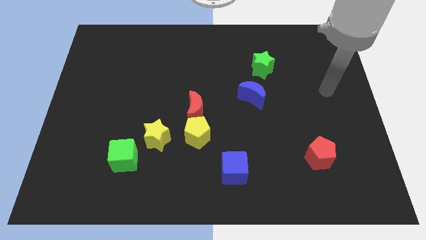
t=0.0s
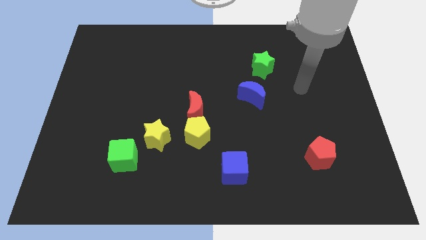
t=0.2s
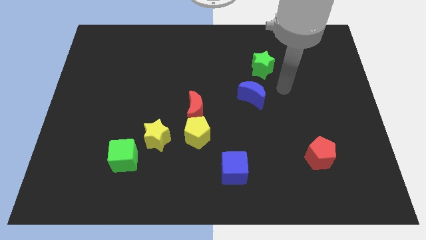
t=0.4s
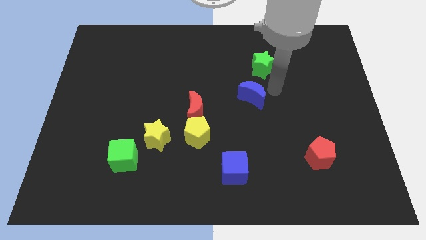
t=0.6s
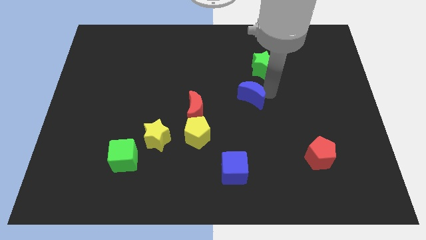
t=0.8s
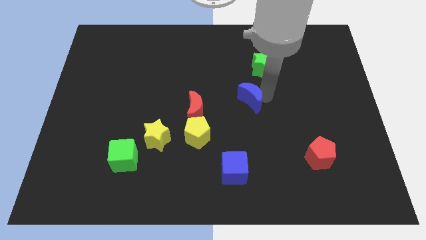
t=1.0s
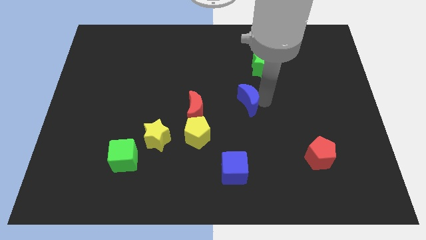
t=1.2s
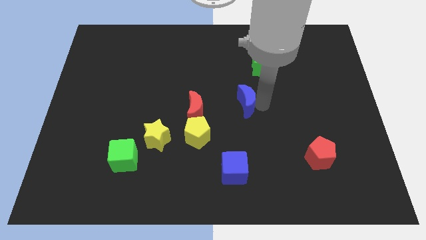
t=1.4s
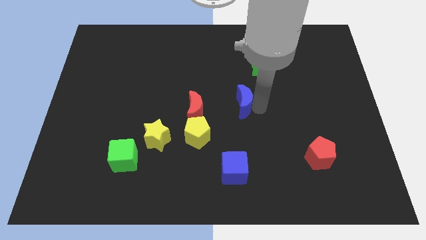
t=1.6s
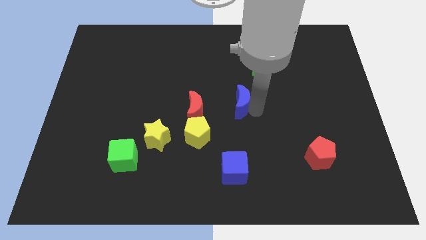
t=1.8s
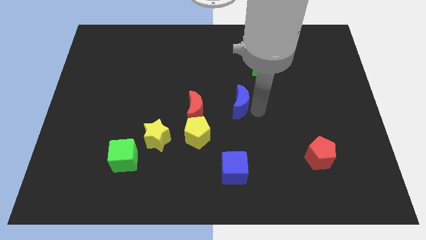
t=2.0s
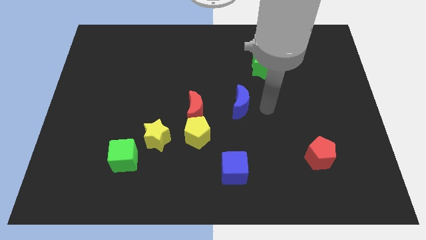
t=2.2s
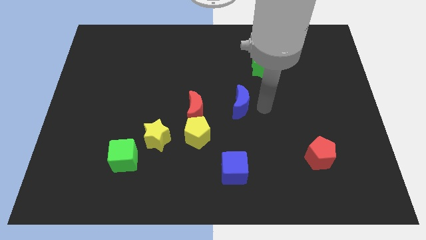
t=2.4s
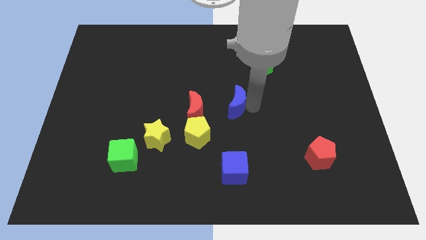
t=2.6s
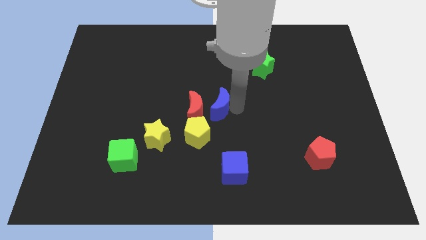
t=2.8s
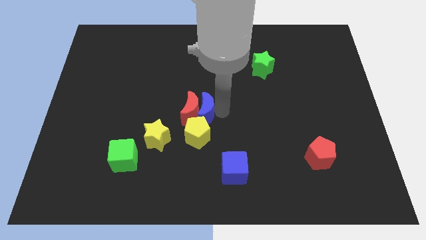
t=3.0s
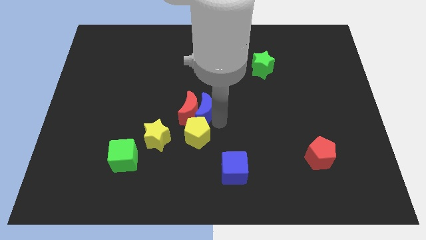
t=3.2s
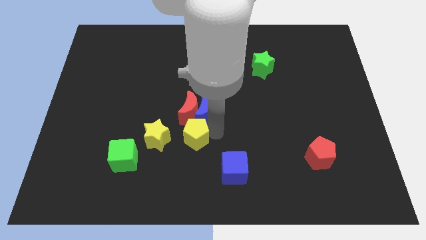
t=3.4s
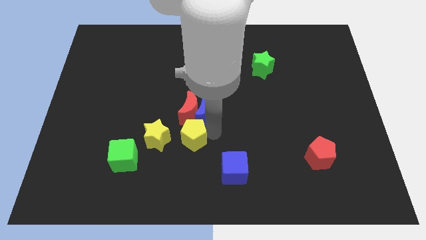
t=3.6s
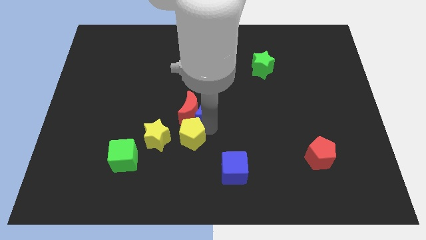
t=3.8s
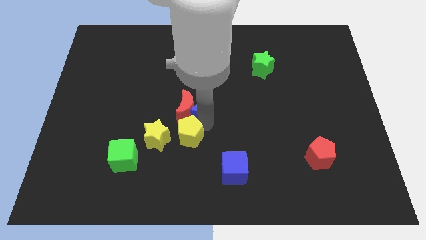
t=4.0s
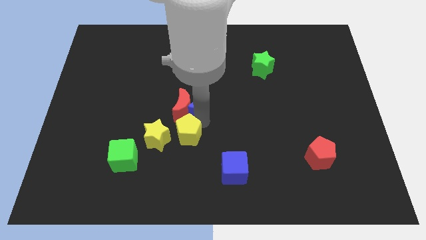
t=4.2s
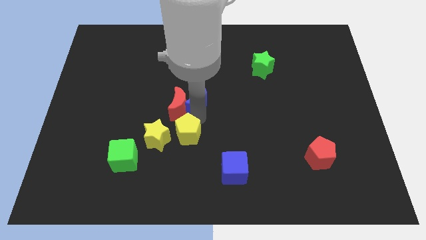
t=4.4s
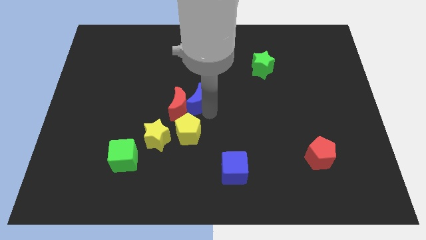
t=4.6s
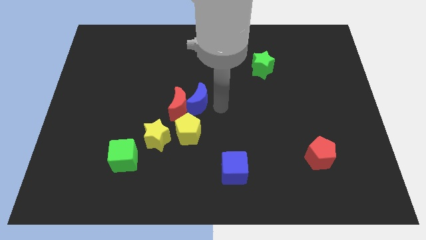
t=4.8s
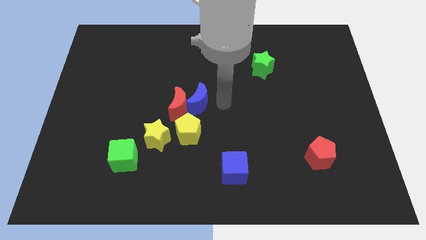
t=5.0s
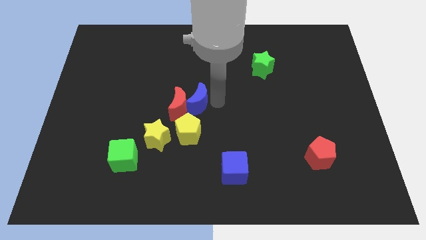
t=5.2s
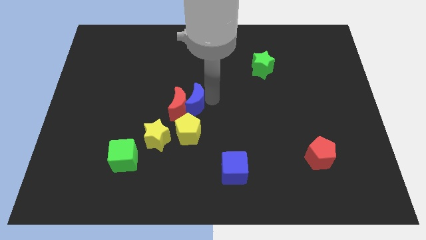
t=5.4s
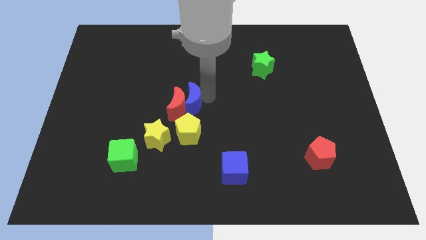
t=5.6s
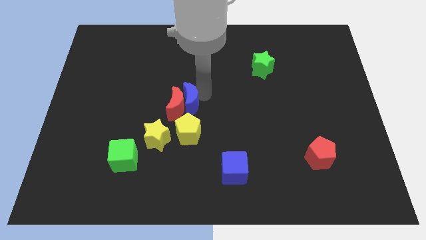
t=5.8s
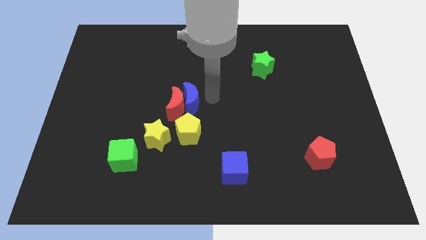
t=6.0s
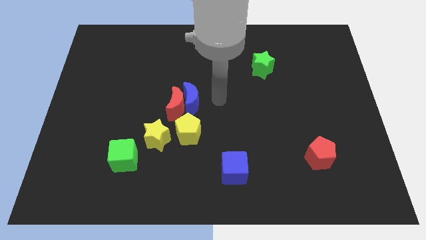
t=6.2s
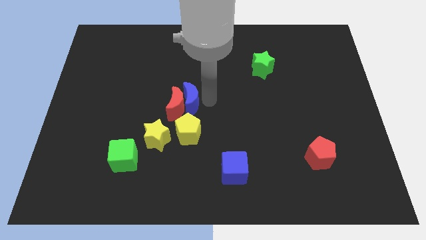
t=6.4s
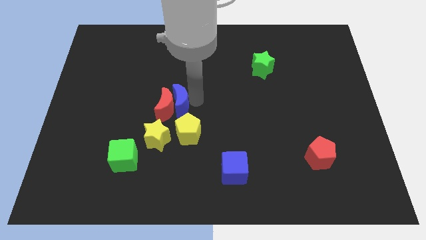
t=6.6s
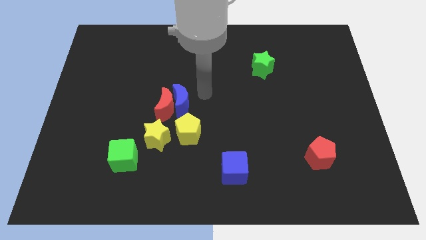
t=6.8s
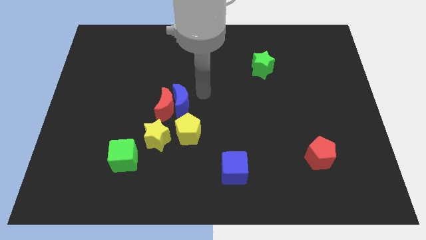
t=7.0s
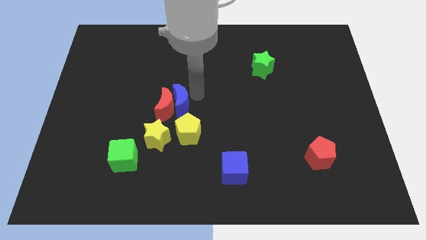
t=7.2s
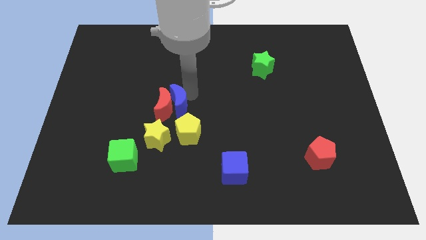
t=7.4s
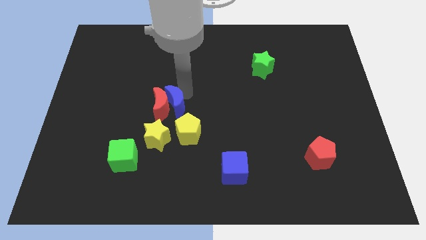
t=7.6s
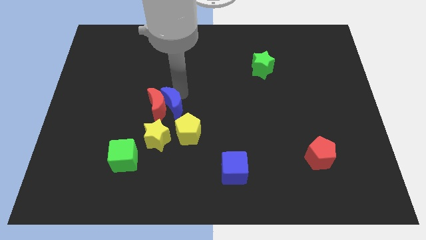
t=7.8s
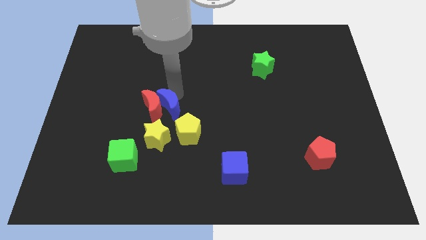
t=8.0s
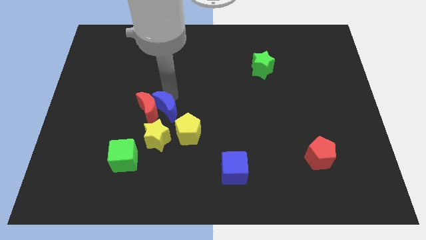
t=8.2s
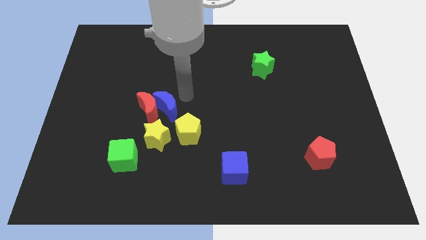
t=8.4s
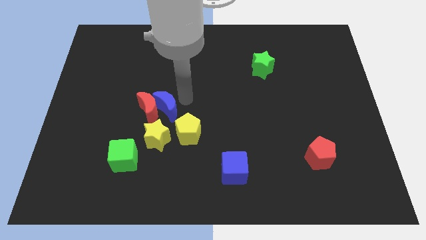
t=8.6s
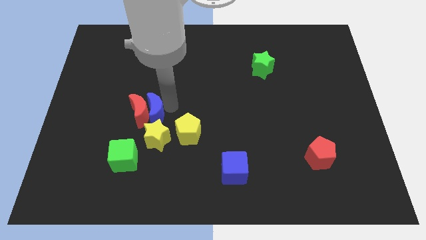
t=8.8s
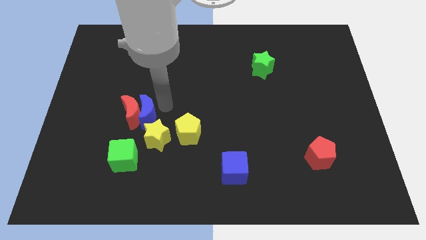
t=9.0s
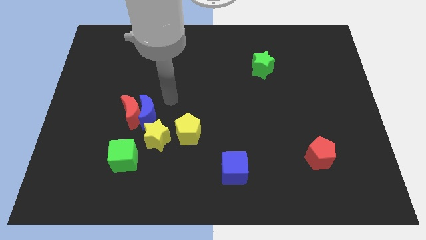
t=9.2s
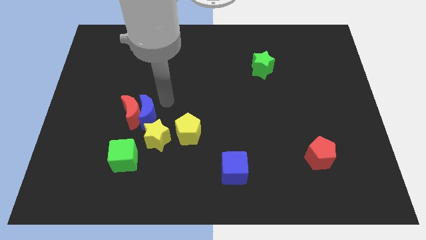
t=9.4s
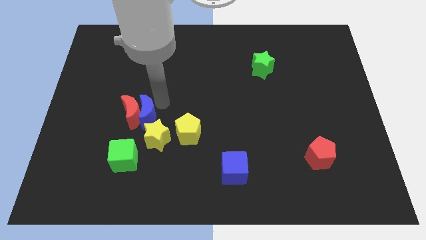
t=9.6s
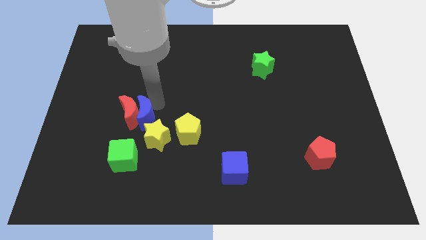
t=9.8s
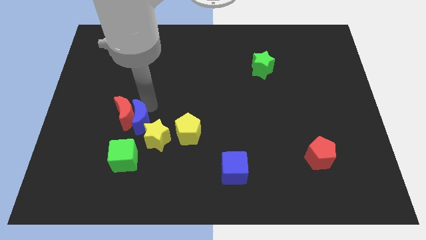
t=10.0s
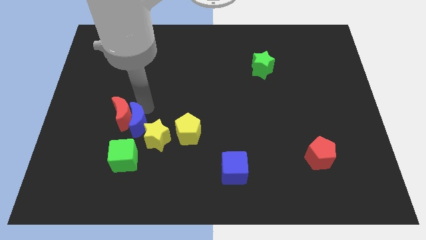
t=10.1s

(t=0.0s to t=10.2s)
push the blue moon left of the yellow star
